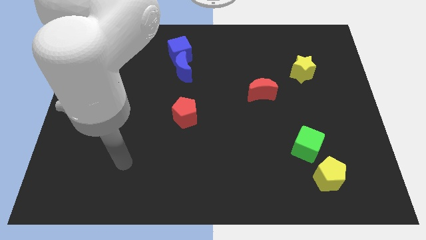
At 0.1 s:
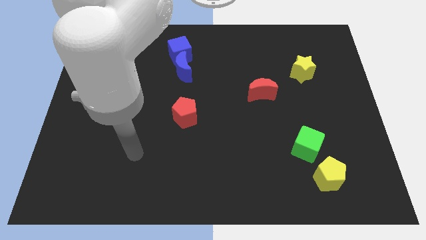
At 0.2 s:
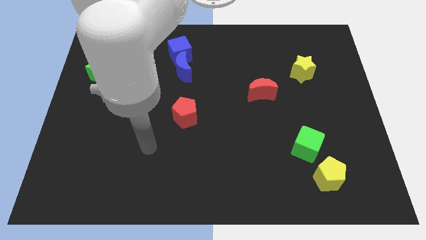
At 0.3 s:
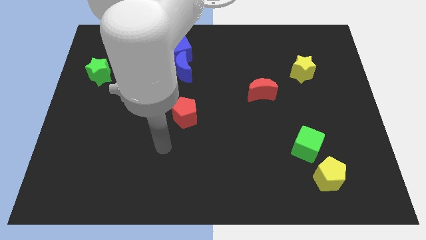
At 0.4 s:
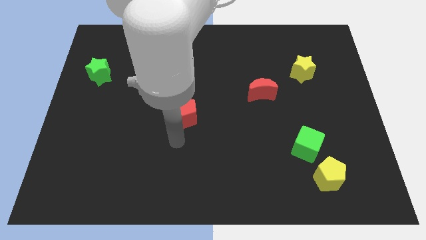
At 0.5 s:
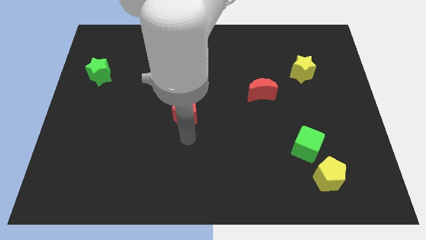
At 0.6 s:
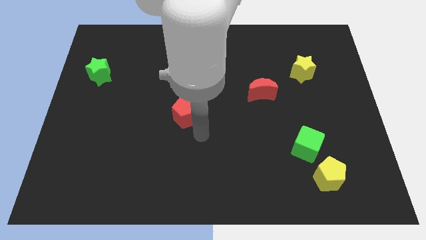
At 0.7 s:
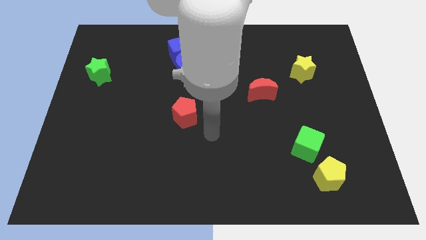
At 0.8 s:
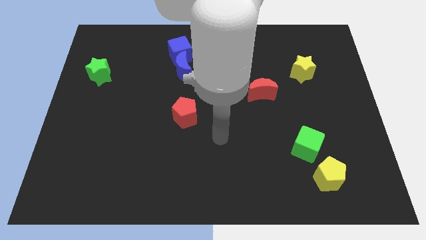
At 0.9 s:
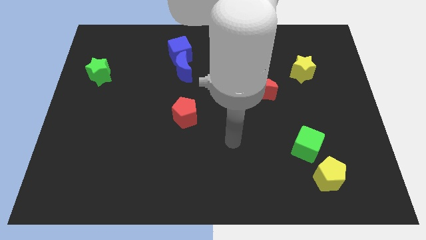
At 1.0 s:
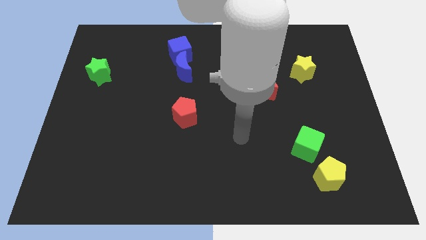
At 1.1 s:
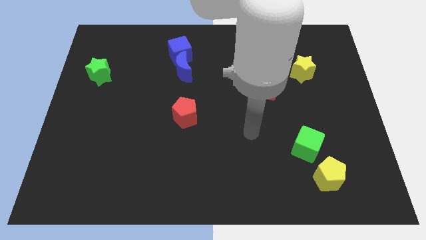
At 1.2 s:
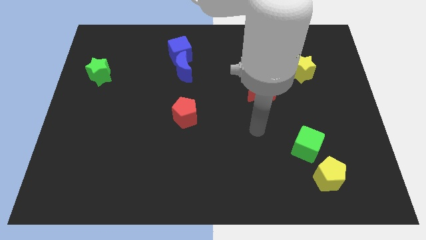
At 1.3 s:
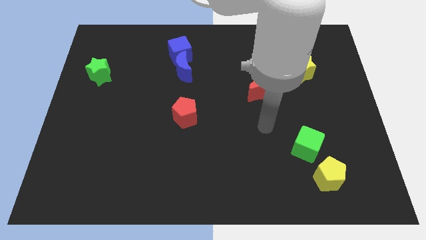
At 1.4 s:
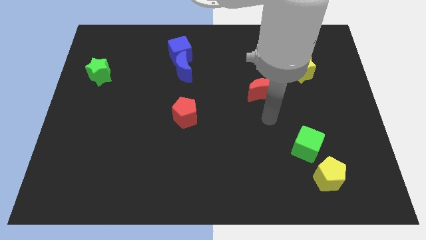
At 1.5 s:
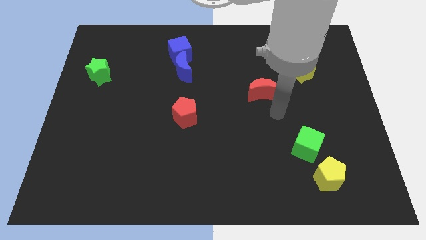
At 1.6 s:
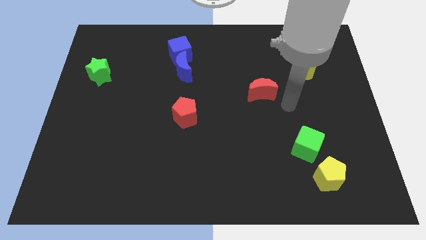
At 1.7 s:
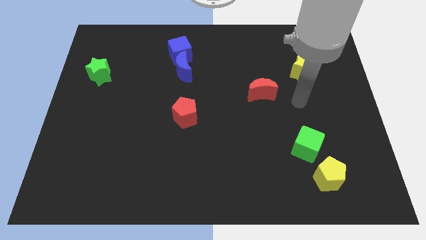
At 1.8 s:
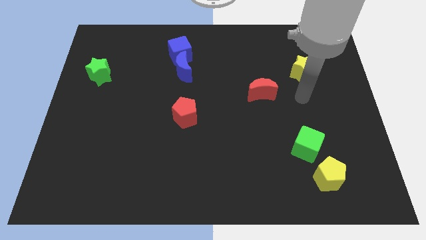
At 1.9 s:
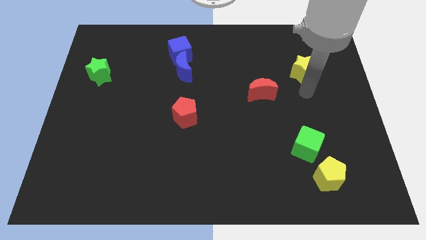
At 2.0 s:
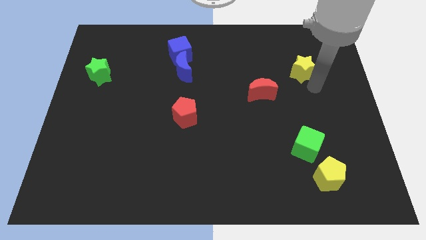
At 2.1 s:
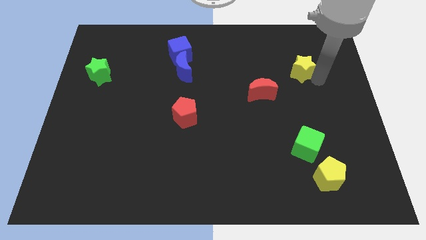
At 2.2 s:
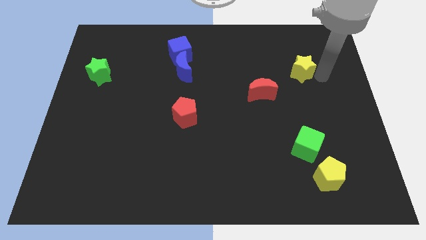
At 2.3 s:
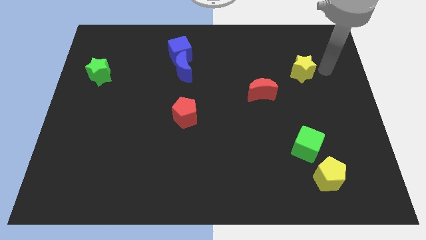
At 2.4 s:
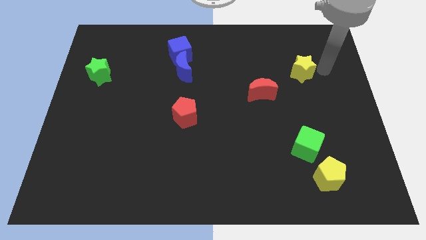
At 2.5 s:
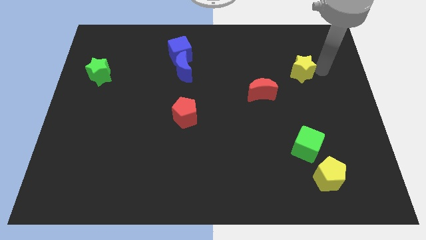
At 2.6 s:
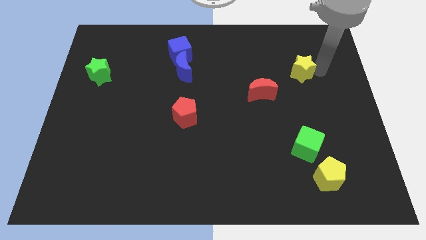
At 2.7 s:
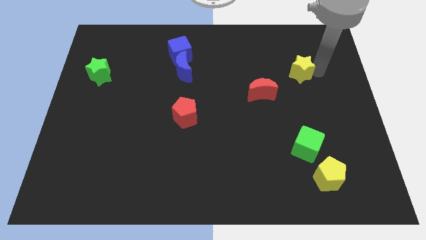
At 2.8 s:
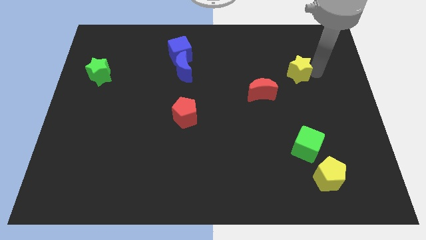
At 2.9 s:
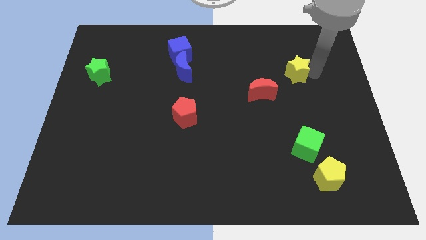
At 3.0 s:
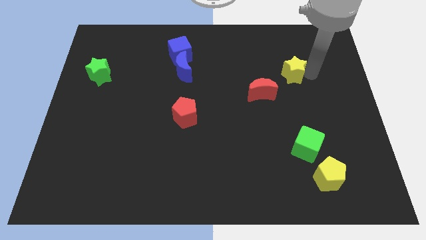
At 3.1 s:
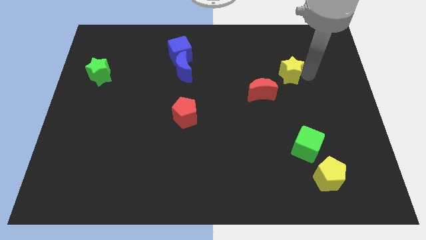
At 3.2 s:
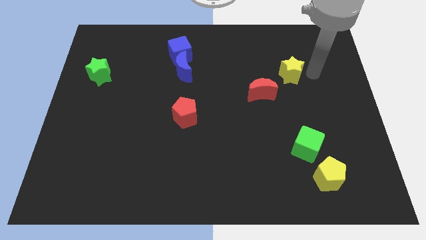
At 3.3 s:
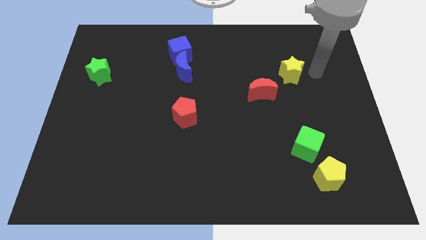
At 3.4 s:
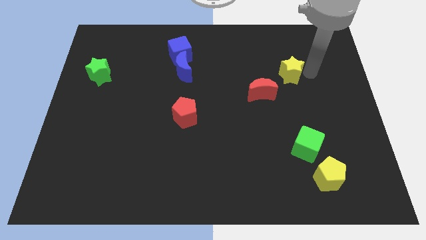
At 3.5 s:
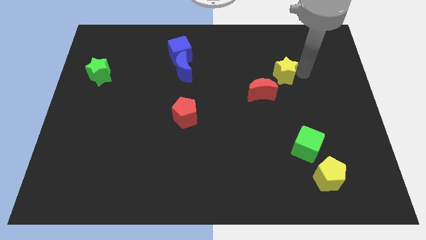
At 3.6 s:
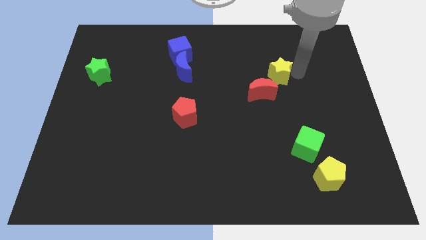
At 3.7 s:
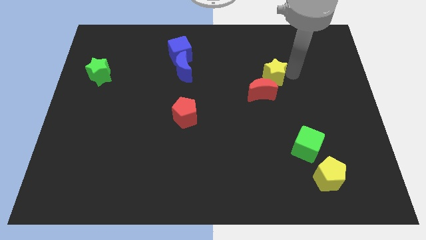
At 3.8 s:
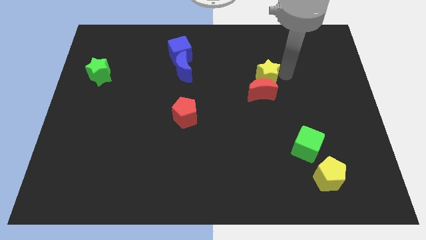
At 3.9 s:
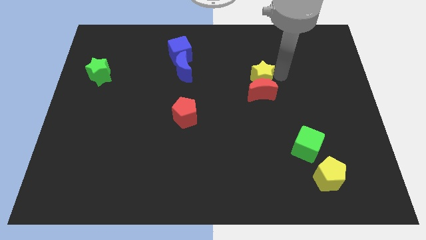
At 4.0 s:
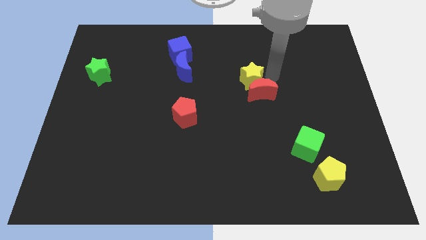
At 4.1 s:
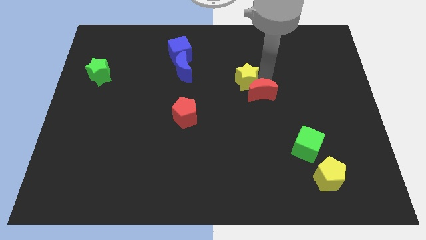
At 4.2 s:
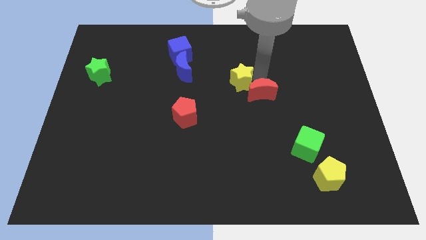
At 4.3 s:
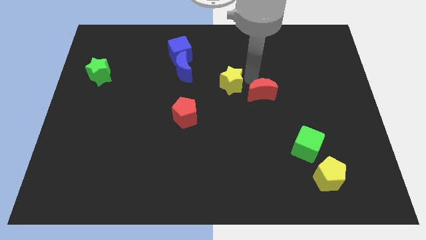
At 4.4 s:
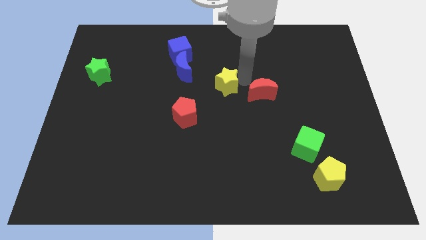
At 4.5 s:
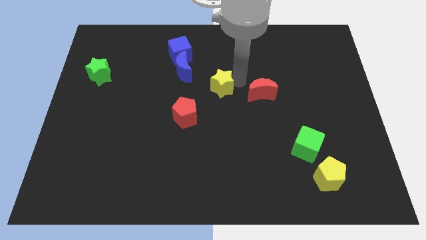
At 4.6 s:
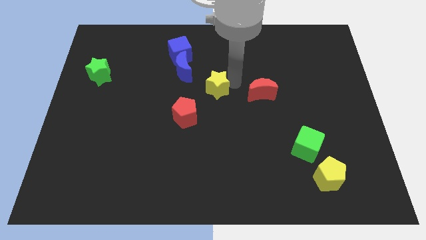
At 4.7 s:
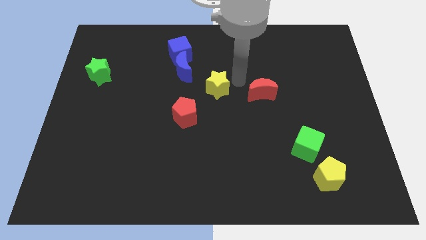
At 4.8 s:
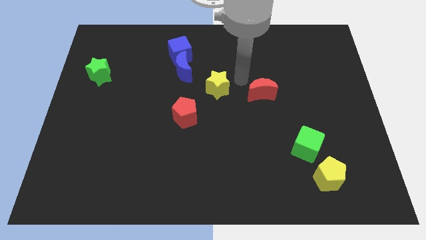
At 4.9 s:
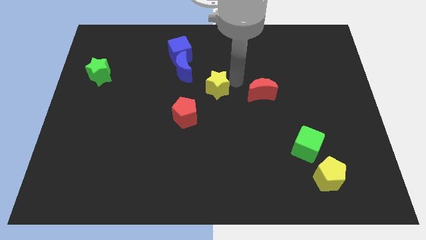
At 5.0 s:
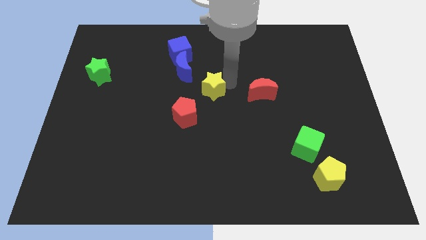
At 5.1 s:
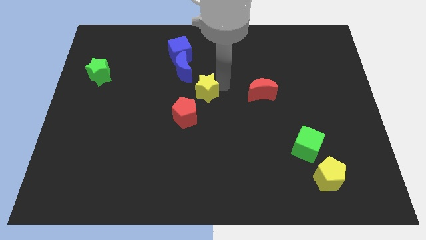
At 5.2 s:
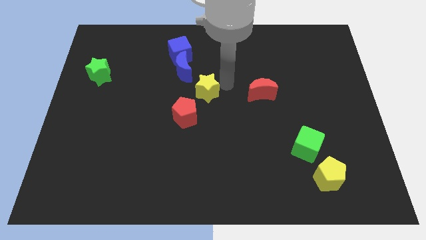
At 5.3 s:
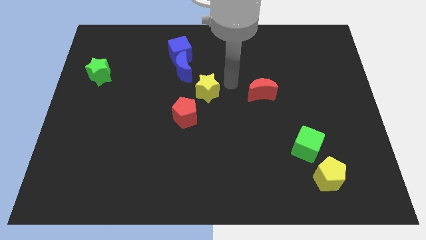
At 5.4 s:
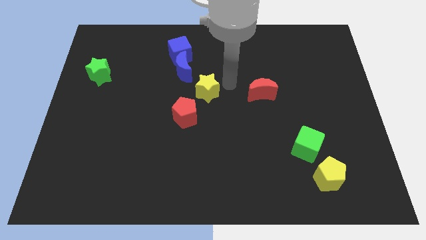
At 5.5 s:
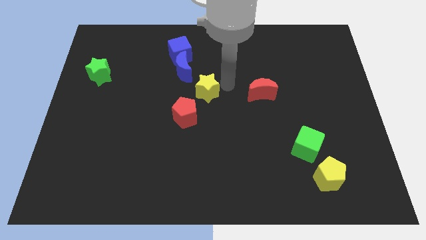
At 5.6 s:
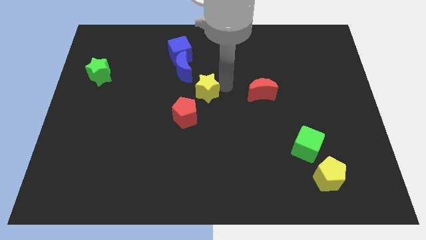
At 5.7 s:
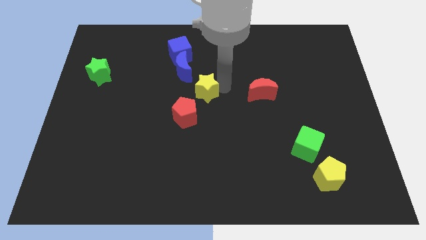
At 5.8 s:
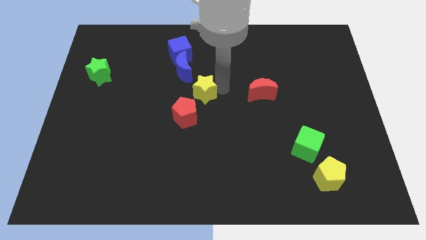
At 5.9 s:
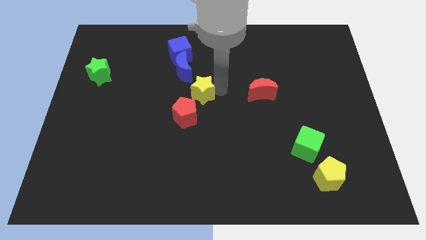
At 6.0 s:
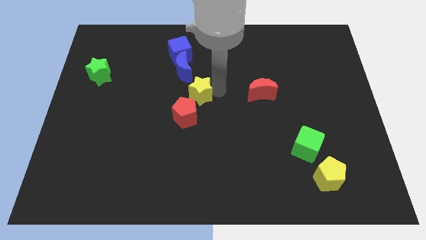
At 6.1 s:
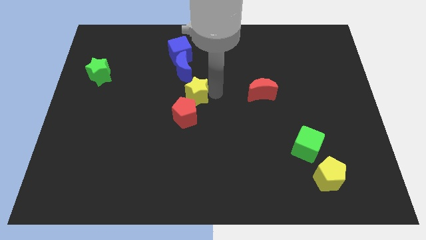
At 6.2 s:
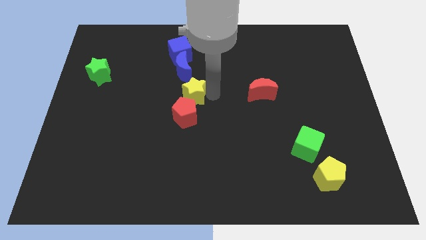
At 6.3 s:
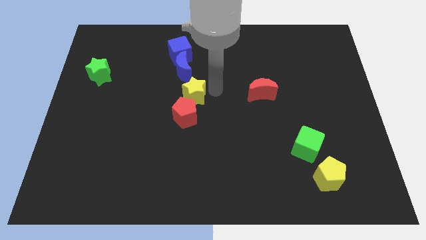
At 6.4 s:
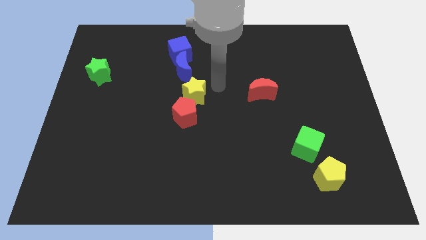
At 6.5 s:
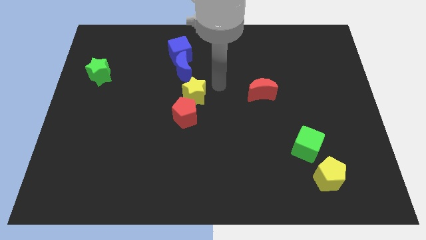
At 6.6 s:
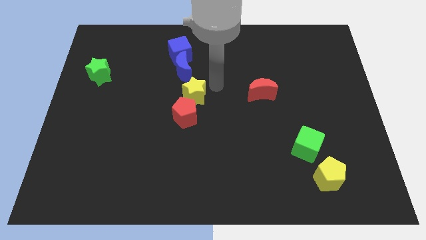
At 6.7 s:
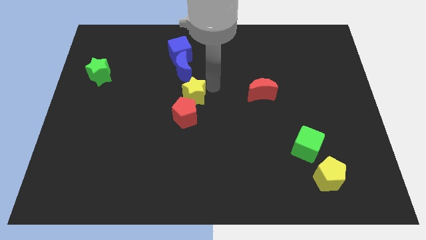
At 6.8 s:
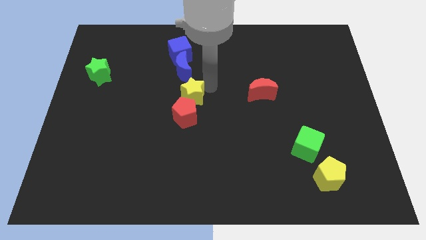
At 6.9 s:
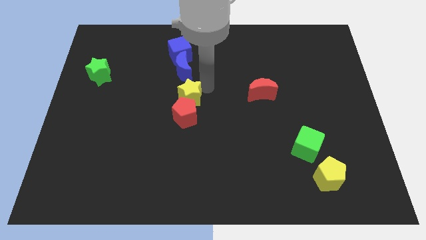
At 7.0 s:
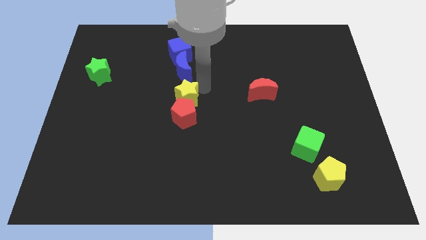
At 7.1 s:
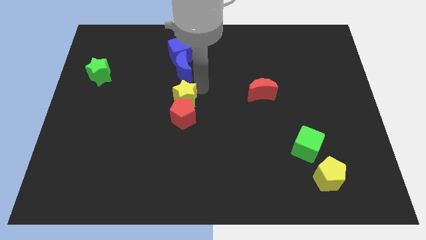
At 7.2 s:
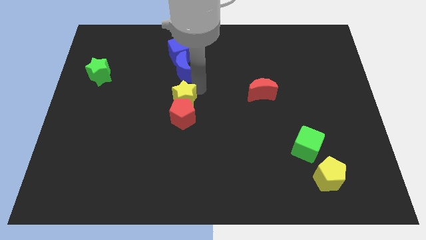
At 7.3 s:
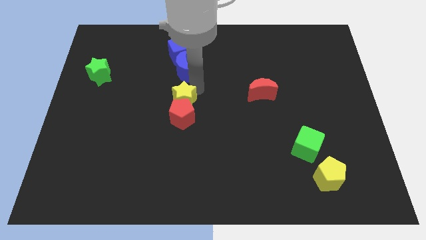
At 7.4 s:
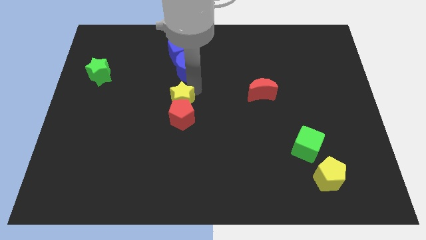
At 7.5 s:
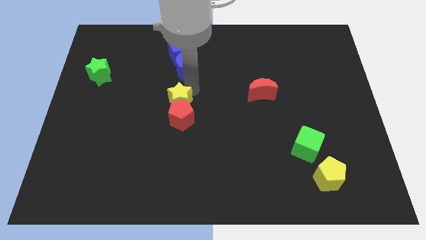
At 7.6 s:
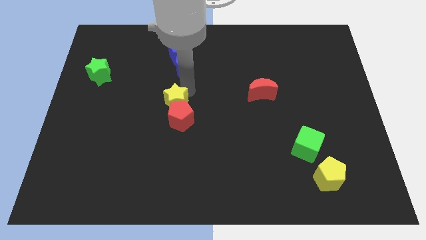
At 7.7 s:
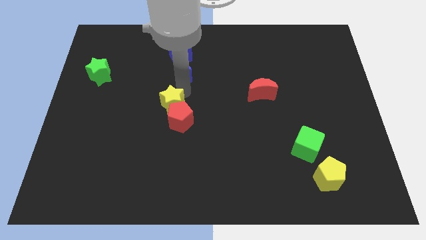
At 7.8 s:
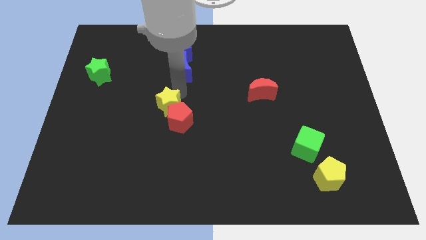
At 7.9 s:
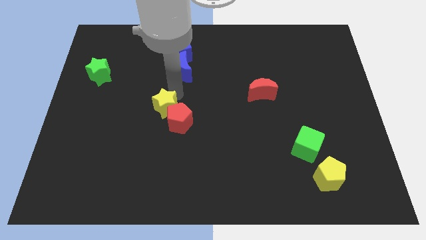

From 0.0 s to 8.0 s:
slide the yellow star left of the red pentagon
